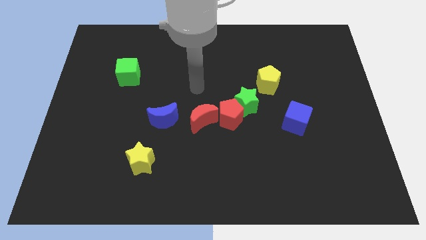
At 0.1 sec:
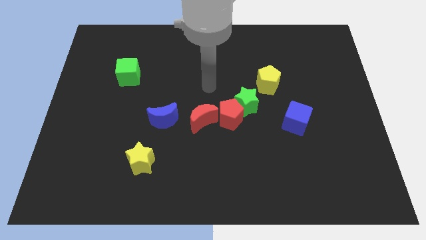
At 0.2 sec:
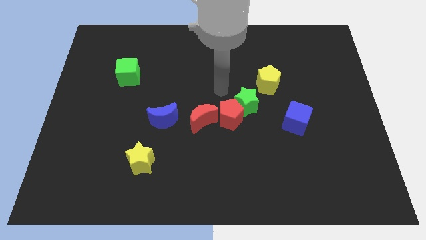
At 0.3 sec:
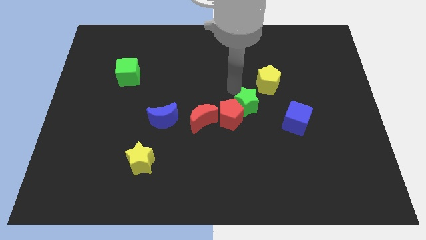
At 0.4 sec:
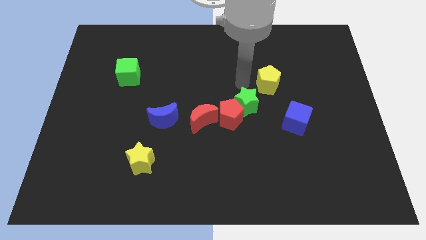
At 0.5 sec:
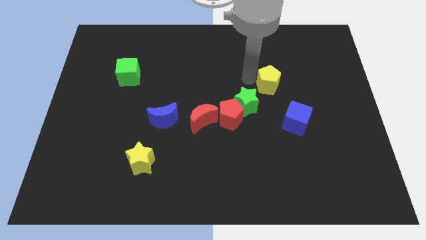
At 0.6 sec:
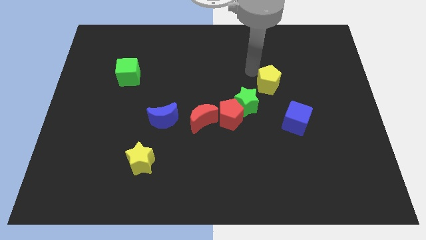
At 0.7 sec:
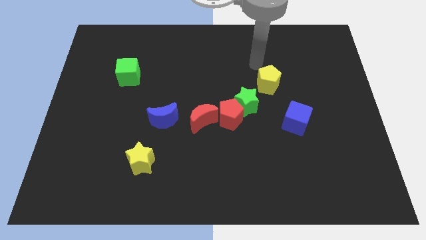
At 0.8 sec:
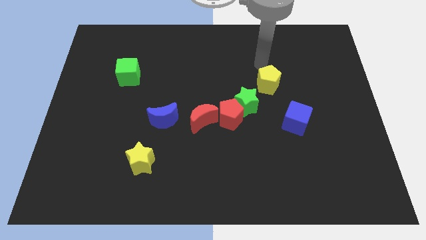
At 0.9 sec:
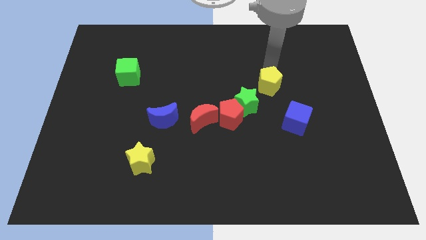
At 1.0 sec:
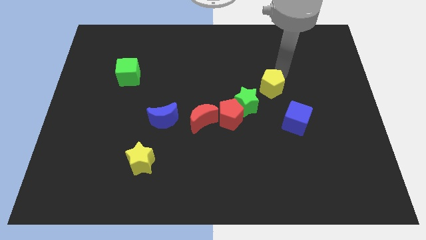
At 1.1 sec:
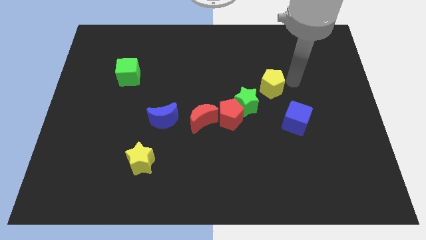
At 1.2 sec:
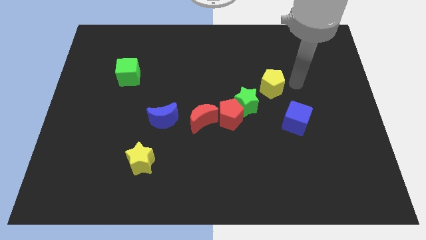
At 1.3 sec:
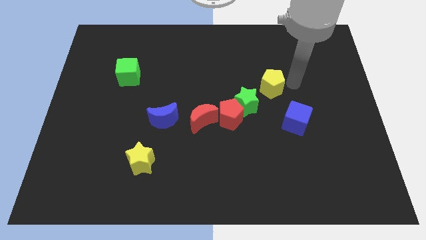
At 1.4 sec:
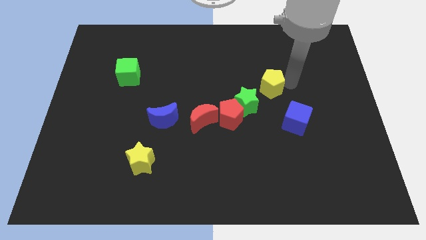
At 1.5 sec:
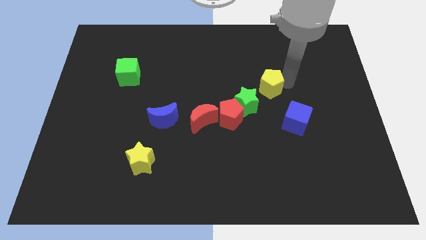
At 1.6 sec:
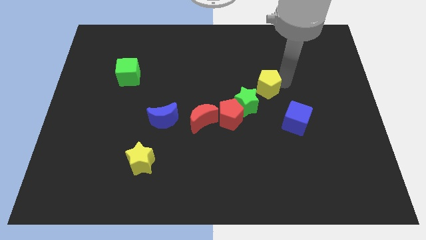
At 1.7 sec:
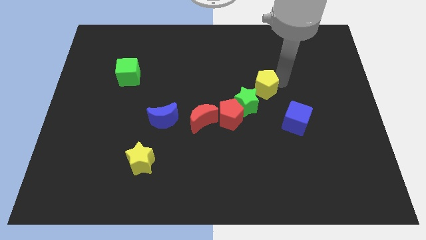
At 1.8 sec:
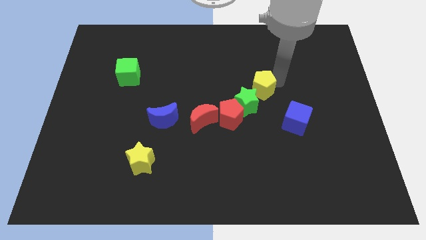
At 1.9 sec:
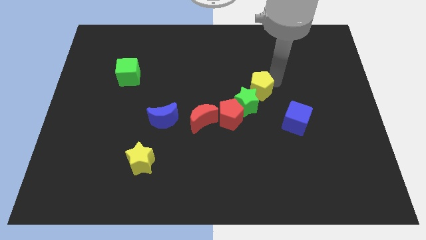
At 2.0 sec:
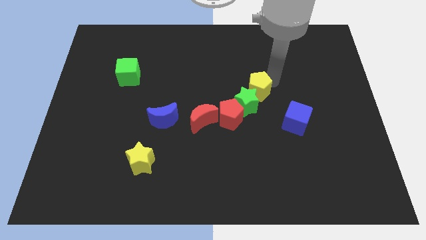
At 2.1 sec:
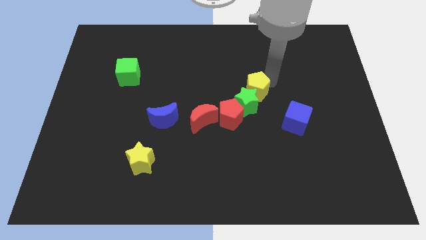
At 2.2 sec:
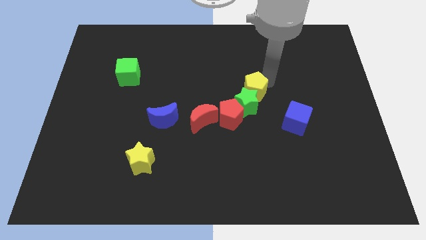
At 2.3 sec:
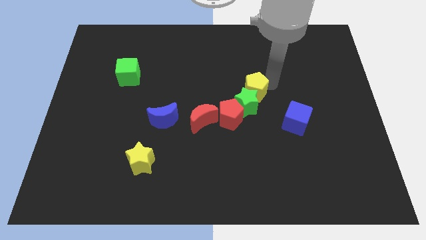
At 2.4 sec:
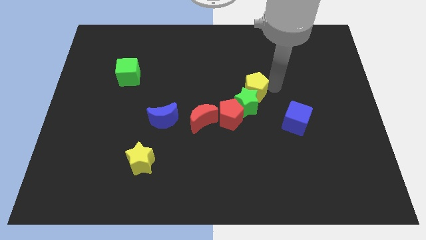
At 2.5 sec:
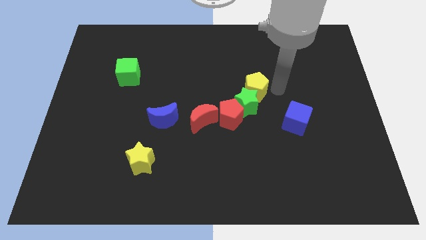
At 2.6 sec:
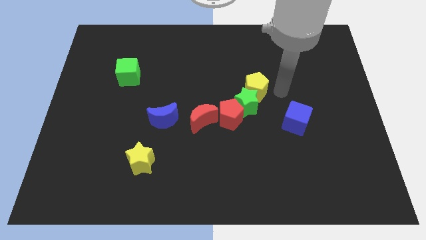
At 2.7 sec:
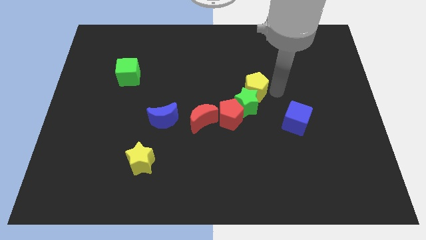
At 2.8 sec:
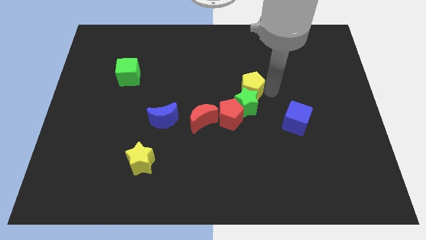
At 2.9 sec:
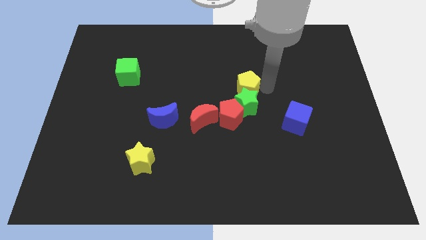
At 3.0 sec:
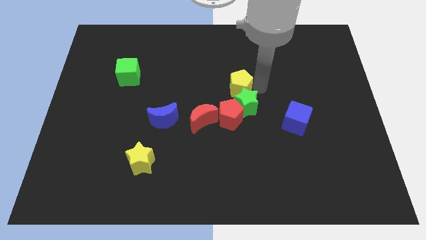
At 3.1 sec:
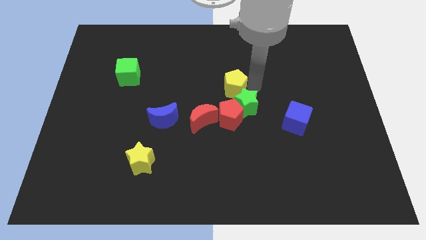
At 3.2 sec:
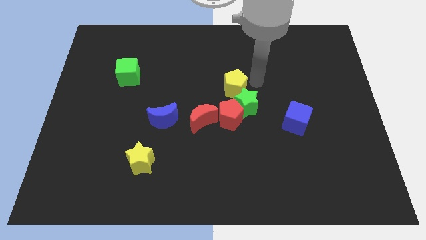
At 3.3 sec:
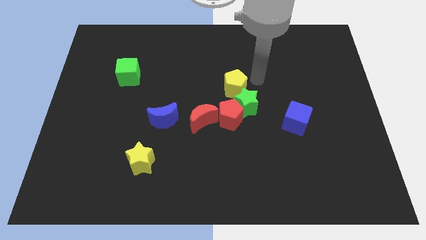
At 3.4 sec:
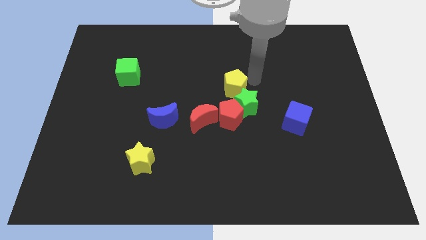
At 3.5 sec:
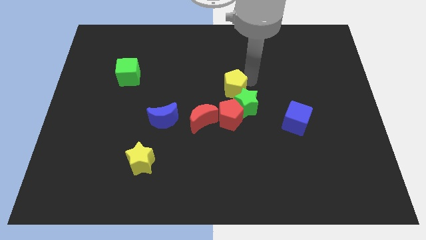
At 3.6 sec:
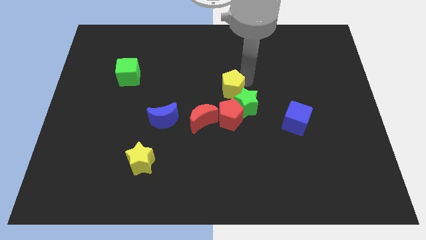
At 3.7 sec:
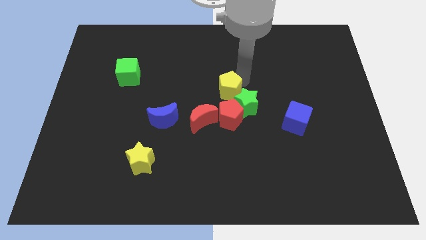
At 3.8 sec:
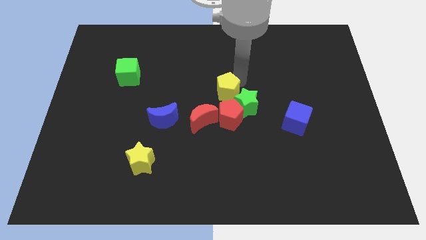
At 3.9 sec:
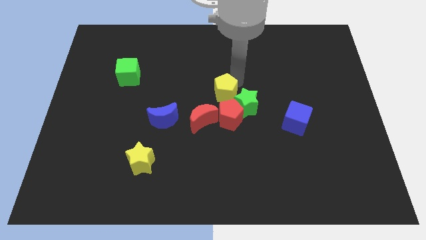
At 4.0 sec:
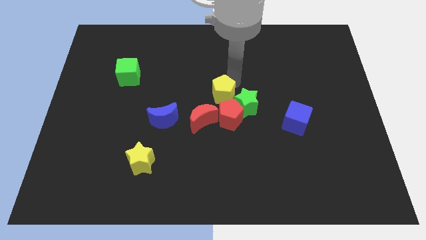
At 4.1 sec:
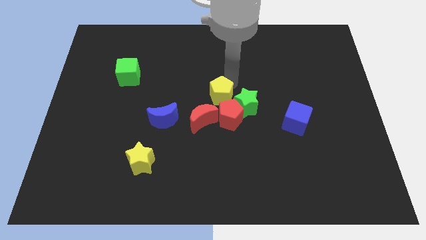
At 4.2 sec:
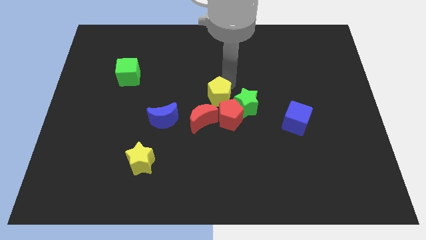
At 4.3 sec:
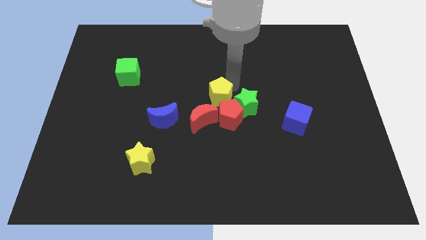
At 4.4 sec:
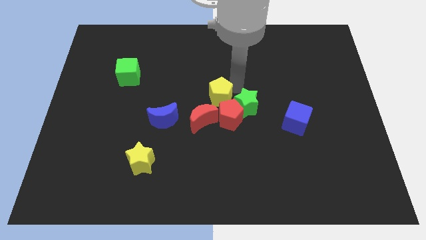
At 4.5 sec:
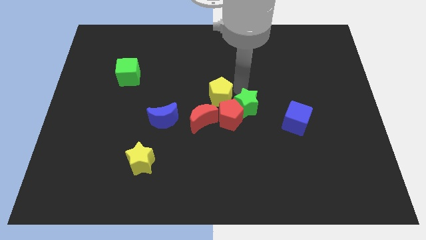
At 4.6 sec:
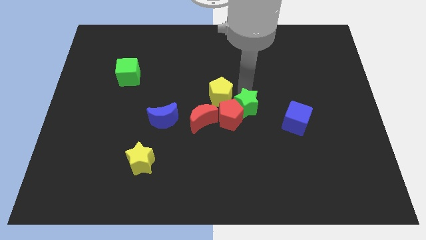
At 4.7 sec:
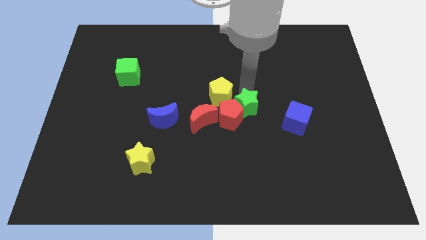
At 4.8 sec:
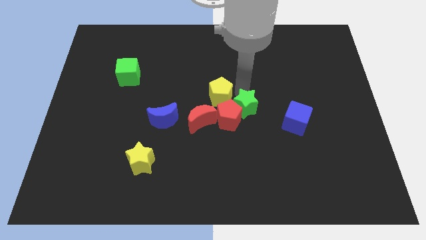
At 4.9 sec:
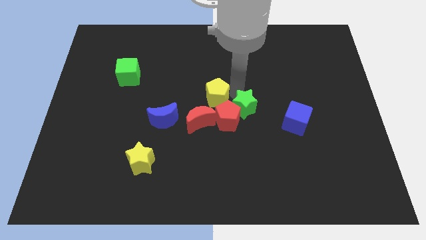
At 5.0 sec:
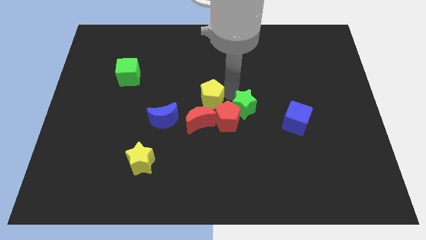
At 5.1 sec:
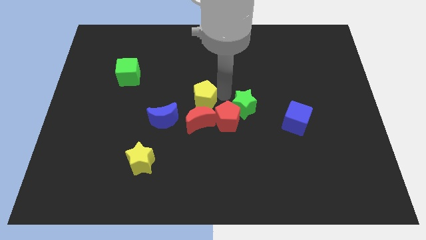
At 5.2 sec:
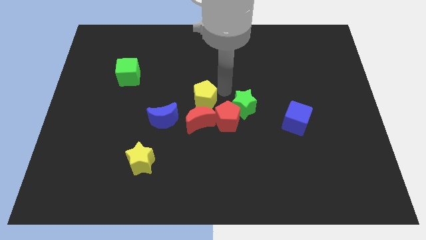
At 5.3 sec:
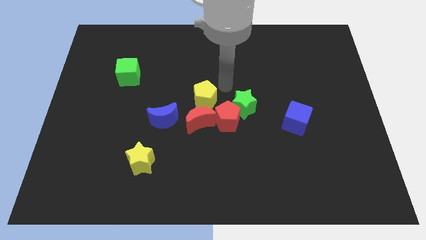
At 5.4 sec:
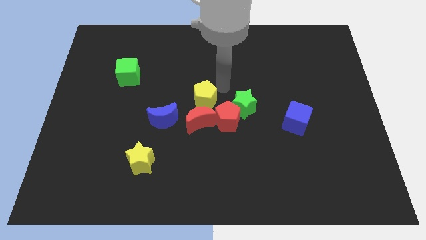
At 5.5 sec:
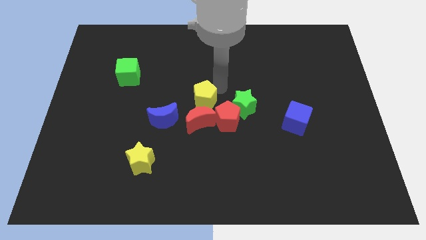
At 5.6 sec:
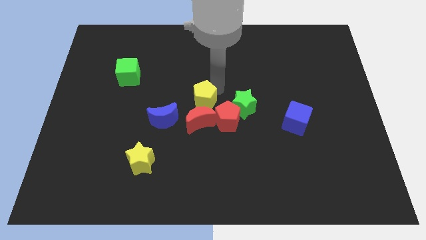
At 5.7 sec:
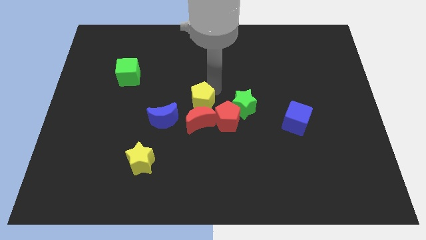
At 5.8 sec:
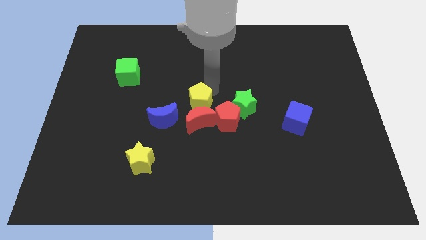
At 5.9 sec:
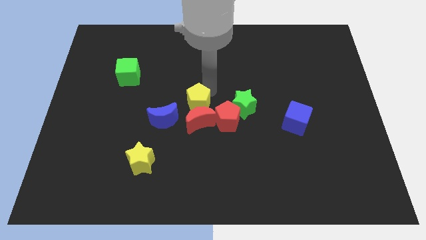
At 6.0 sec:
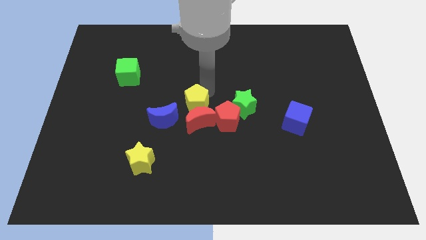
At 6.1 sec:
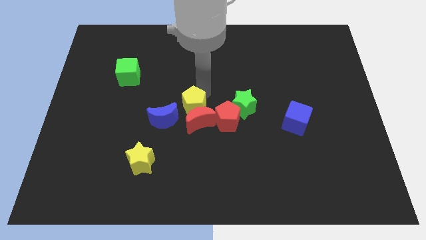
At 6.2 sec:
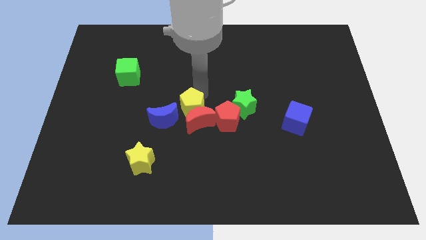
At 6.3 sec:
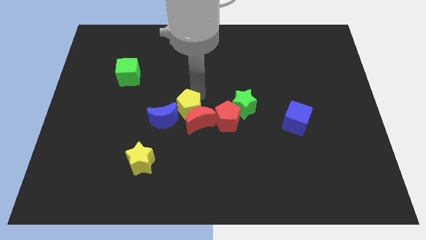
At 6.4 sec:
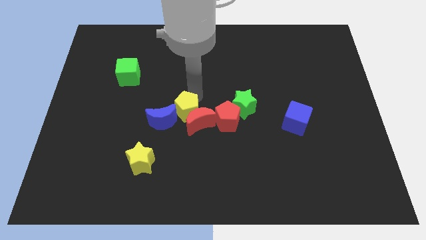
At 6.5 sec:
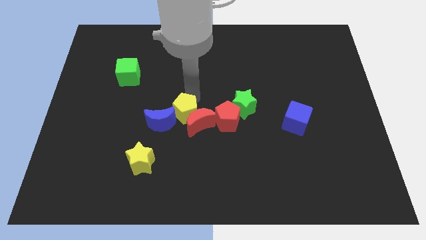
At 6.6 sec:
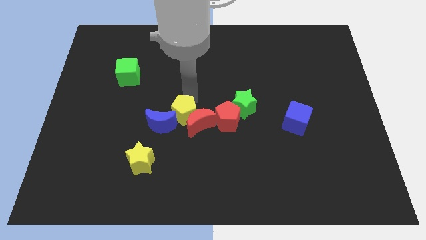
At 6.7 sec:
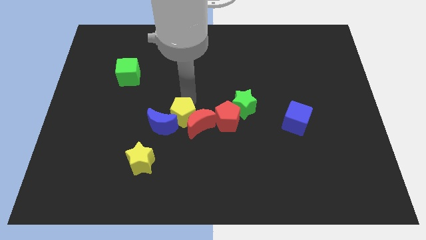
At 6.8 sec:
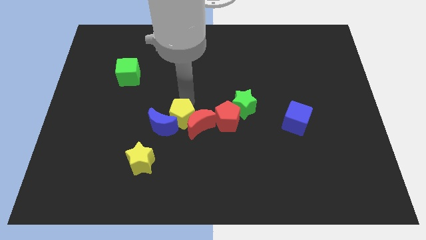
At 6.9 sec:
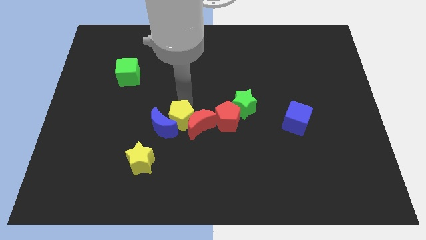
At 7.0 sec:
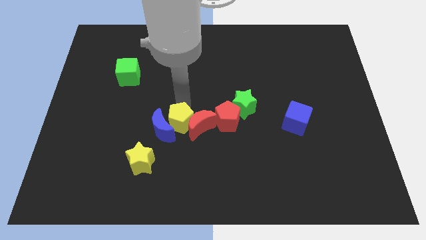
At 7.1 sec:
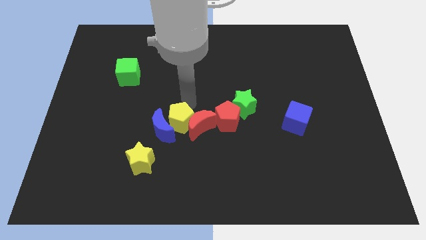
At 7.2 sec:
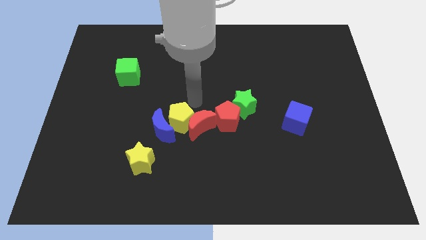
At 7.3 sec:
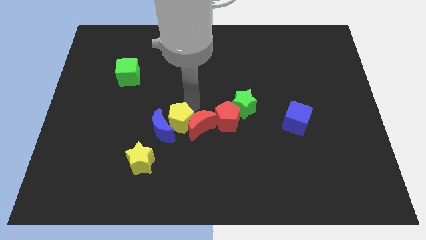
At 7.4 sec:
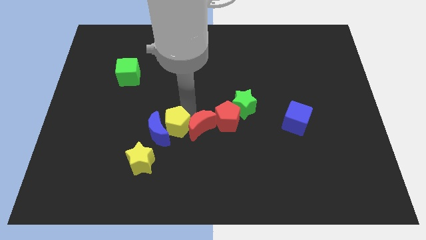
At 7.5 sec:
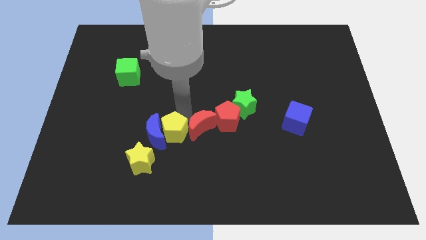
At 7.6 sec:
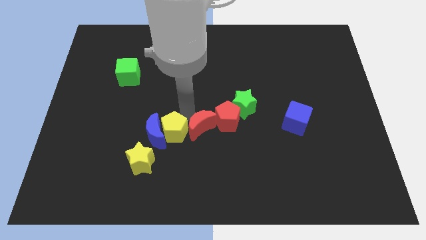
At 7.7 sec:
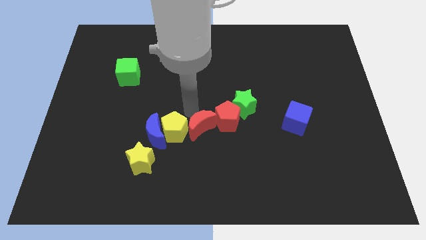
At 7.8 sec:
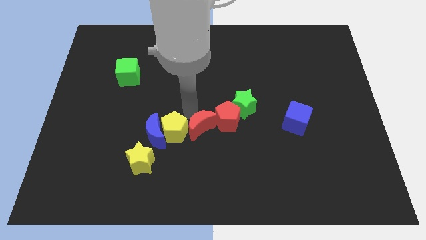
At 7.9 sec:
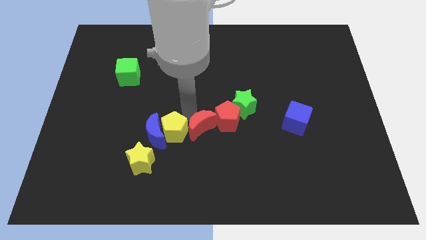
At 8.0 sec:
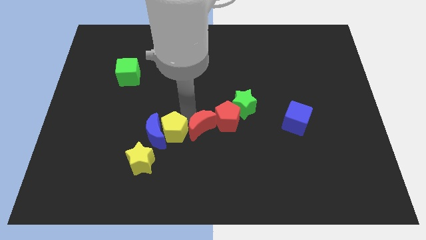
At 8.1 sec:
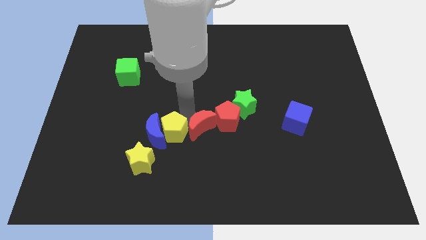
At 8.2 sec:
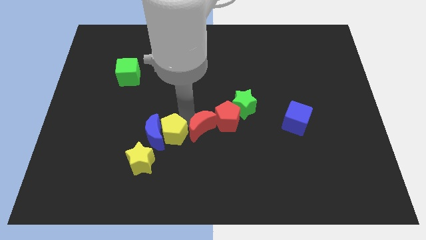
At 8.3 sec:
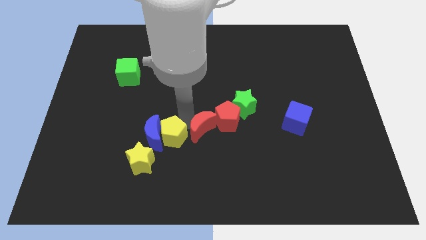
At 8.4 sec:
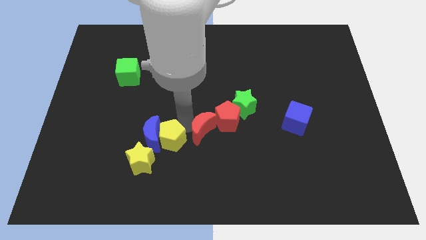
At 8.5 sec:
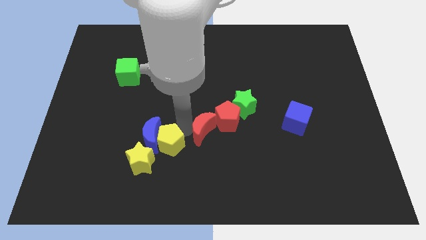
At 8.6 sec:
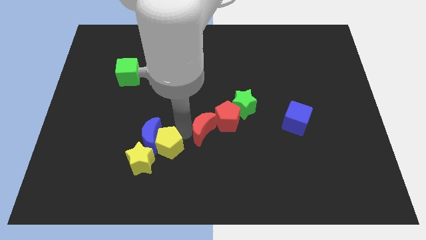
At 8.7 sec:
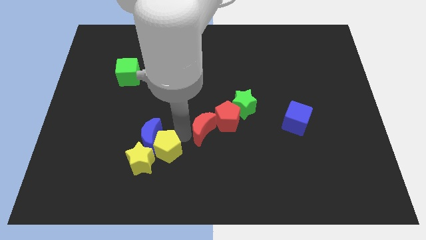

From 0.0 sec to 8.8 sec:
move the yellow pentagon next to the yellow star
